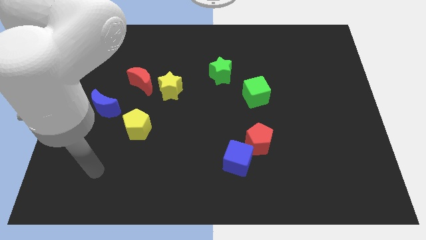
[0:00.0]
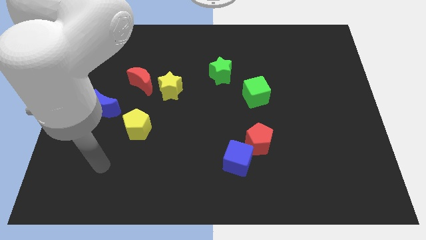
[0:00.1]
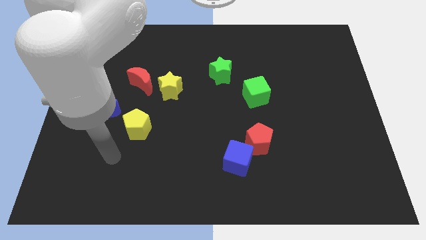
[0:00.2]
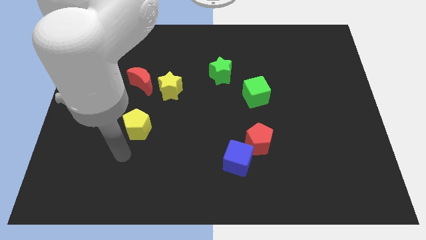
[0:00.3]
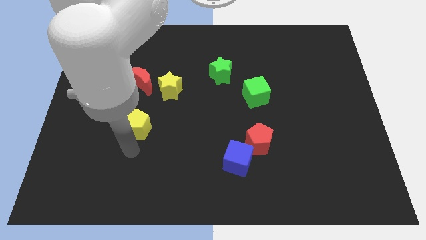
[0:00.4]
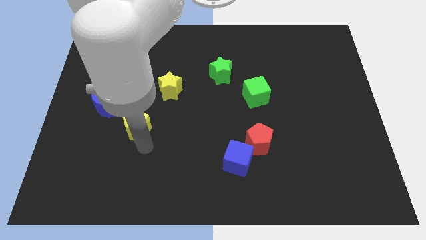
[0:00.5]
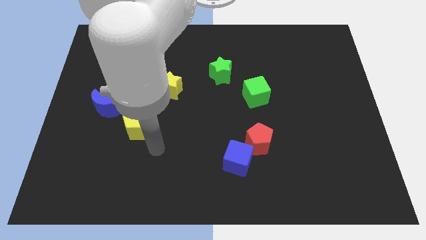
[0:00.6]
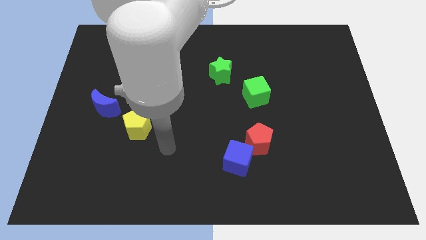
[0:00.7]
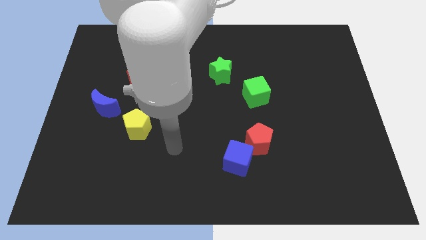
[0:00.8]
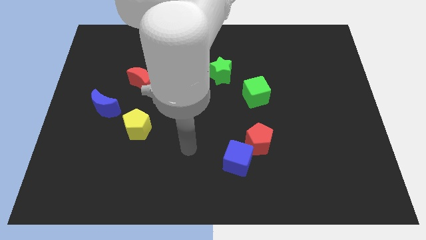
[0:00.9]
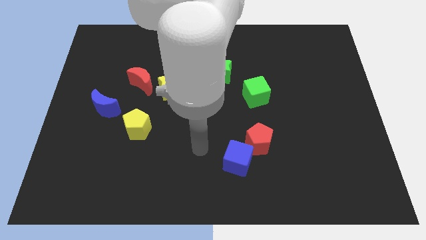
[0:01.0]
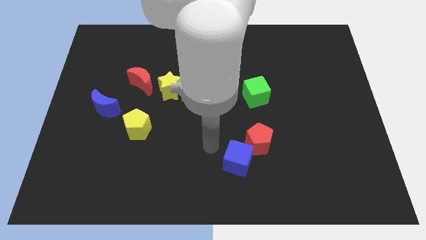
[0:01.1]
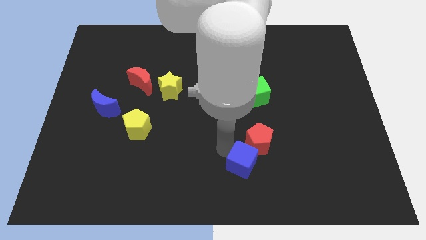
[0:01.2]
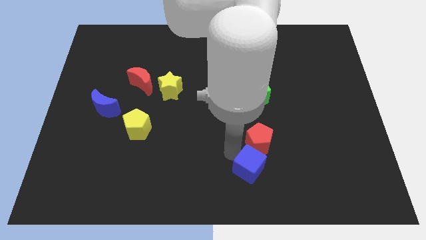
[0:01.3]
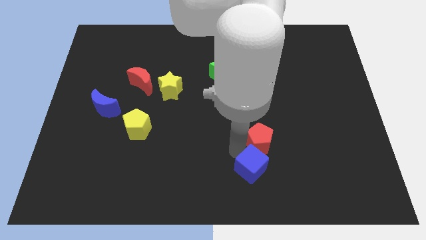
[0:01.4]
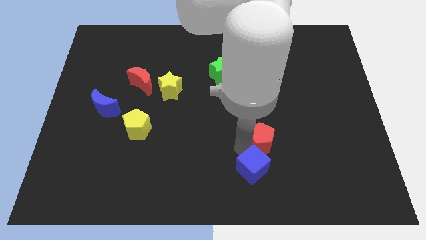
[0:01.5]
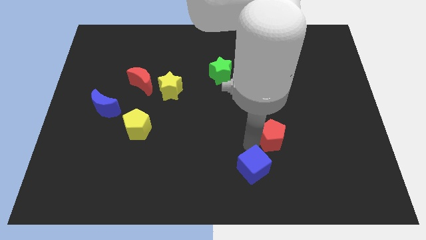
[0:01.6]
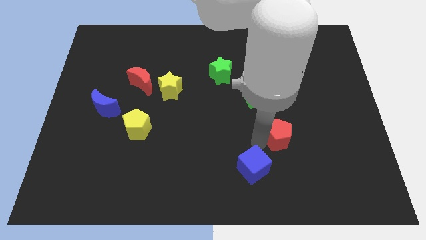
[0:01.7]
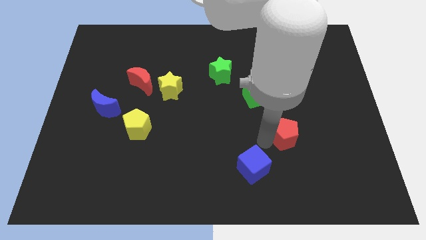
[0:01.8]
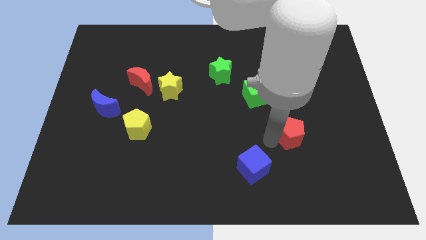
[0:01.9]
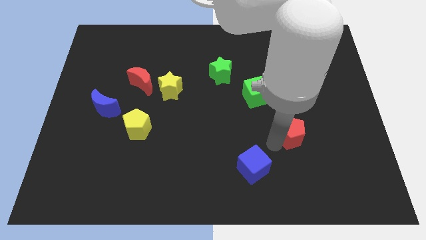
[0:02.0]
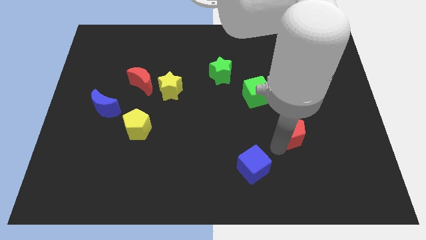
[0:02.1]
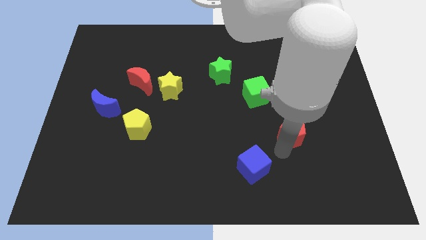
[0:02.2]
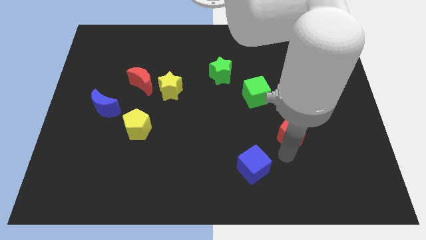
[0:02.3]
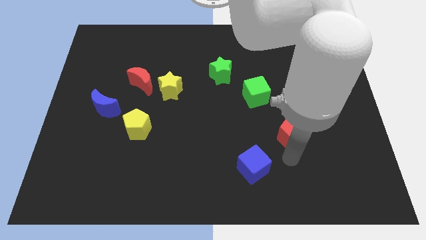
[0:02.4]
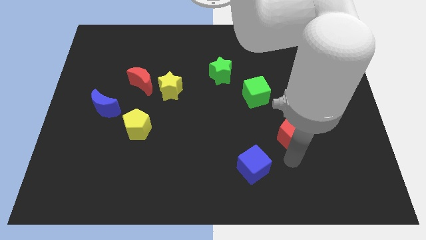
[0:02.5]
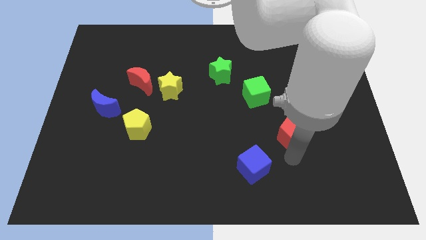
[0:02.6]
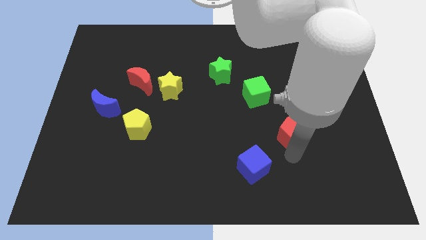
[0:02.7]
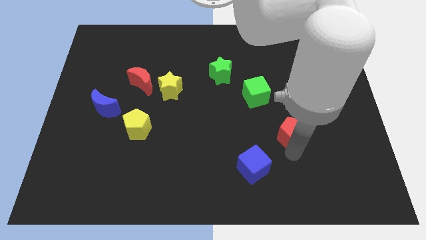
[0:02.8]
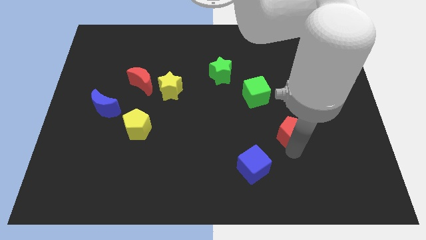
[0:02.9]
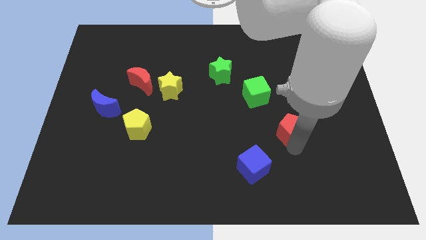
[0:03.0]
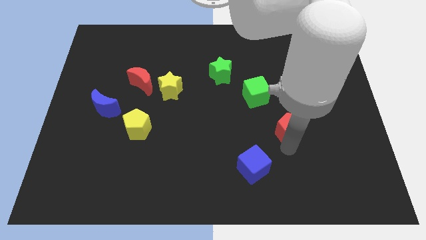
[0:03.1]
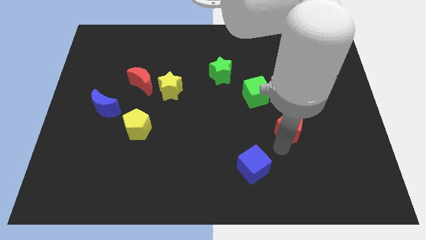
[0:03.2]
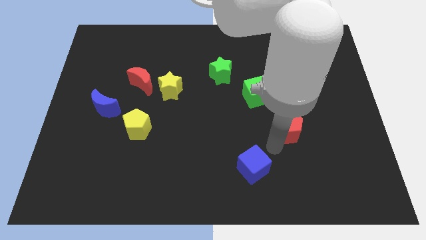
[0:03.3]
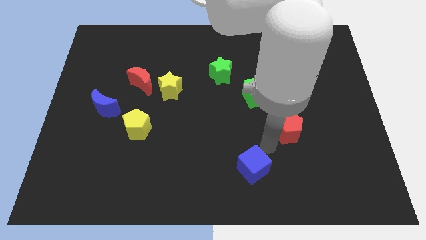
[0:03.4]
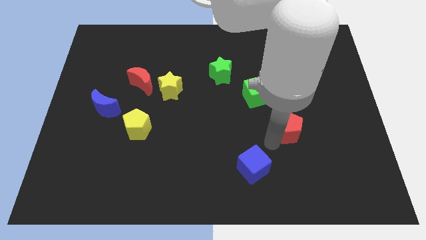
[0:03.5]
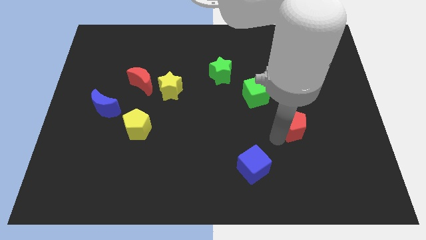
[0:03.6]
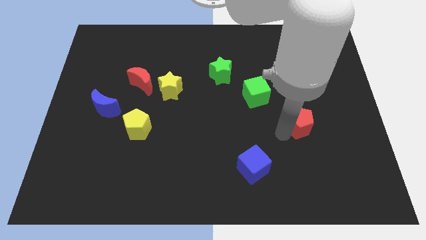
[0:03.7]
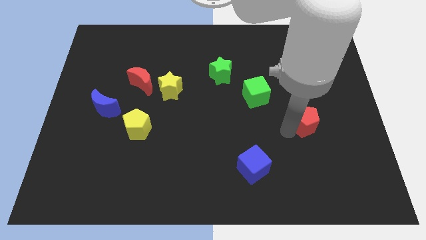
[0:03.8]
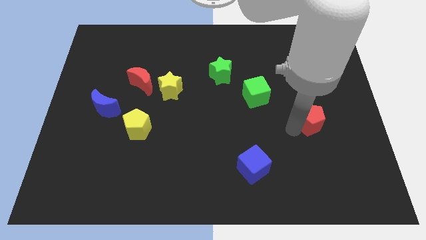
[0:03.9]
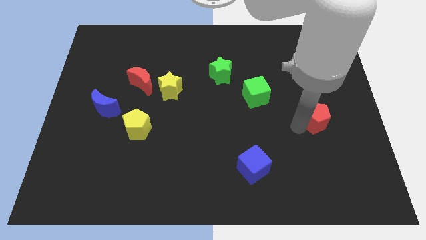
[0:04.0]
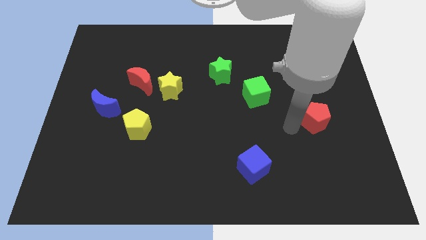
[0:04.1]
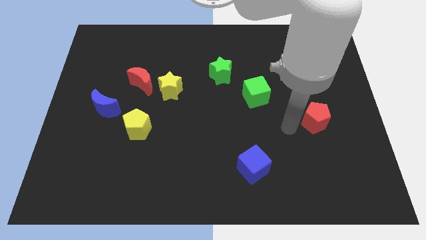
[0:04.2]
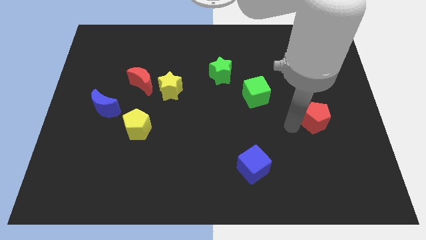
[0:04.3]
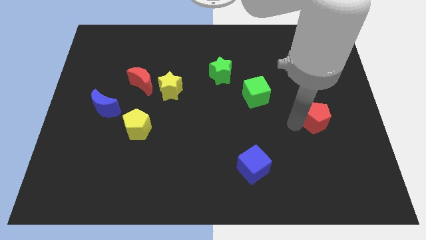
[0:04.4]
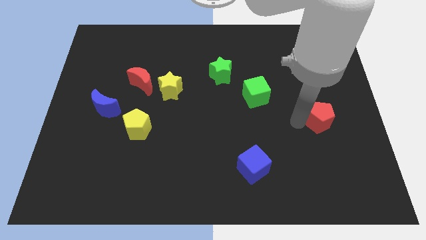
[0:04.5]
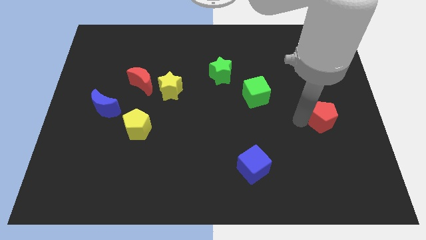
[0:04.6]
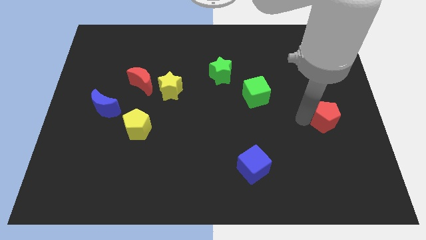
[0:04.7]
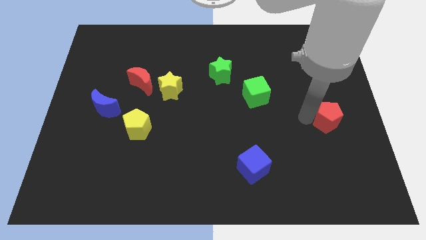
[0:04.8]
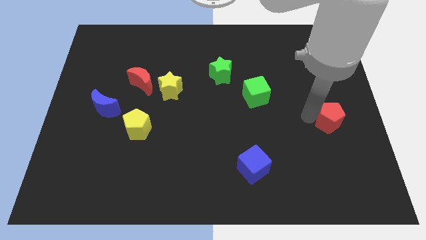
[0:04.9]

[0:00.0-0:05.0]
push the red pentagon to the right side of the board

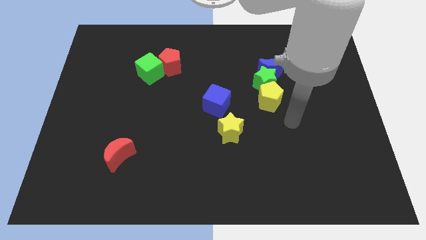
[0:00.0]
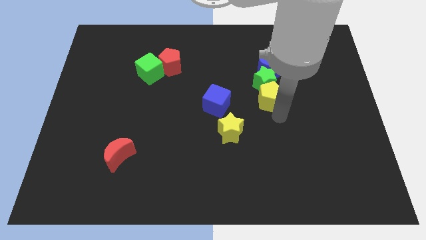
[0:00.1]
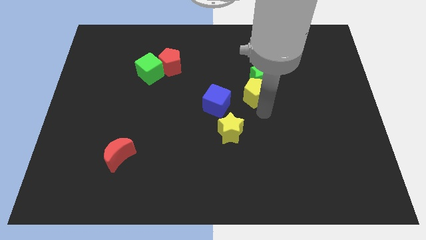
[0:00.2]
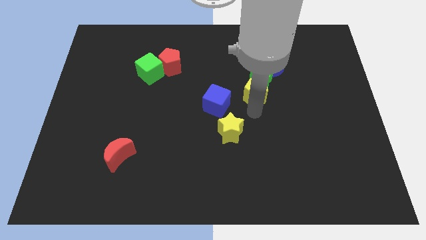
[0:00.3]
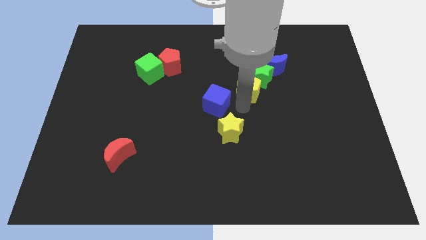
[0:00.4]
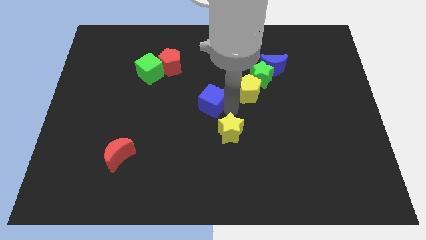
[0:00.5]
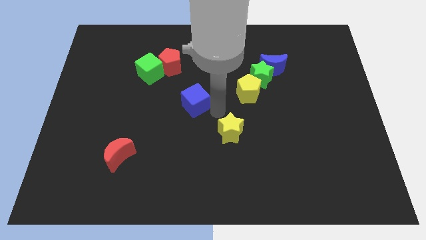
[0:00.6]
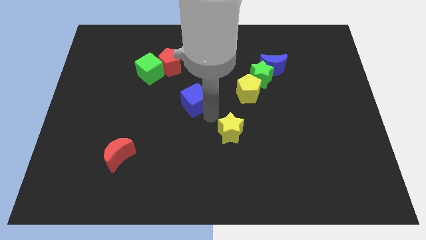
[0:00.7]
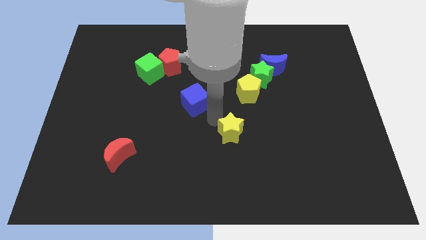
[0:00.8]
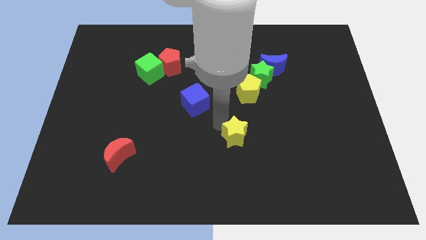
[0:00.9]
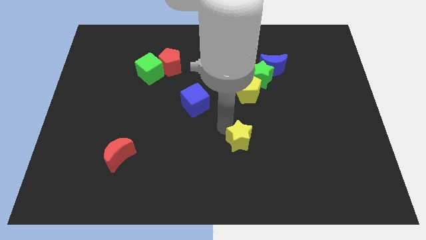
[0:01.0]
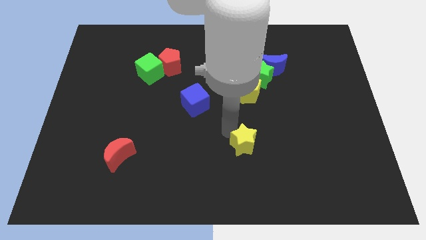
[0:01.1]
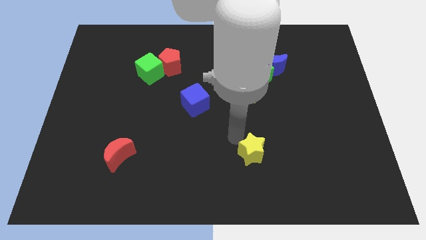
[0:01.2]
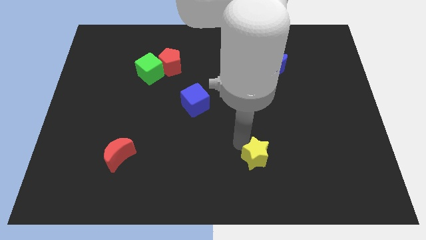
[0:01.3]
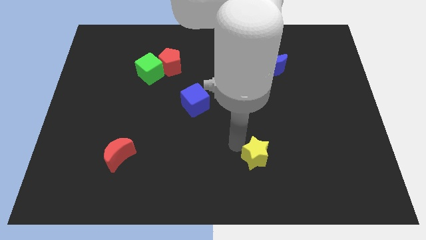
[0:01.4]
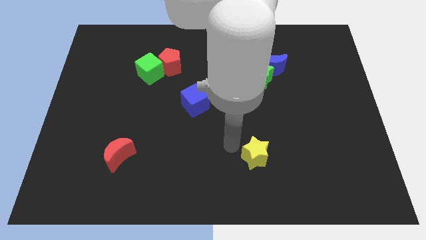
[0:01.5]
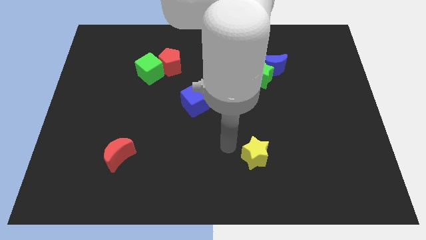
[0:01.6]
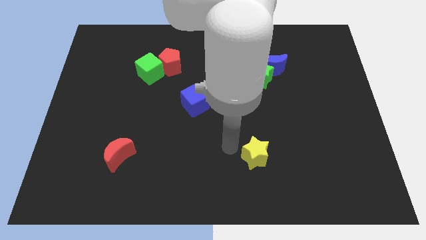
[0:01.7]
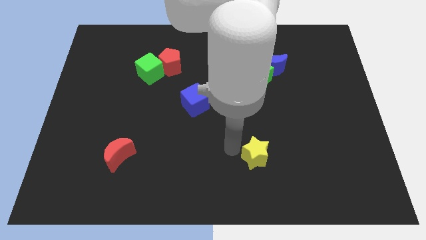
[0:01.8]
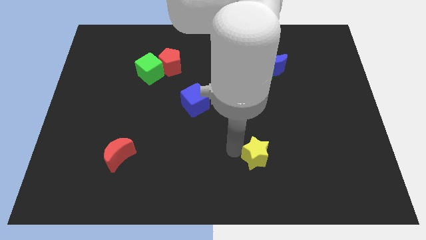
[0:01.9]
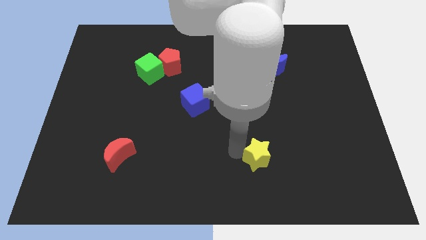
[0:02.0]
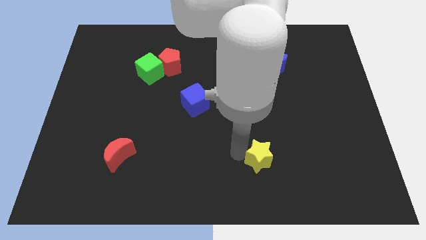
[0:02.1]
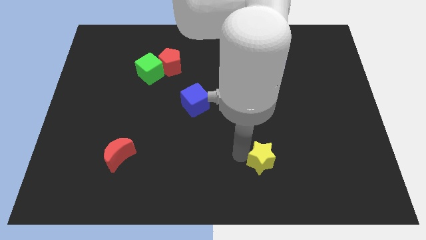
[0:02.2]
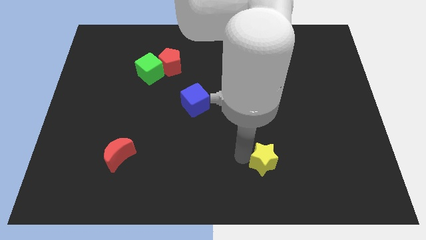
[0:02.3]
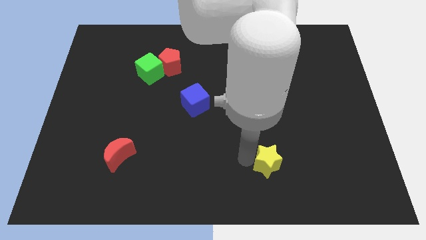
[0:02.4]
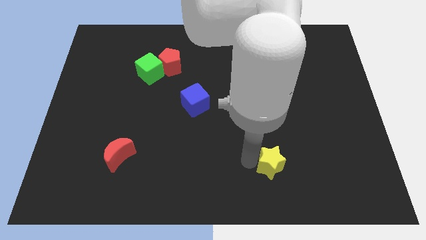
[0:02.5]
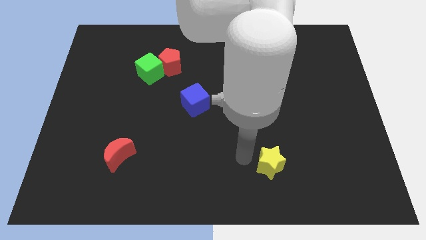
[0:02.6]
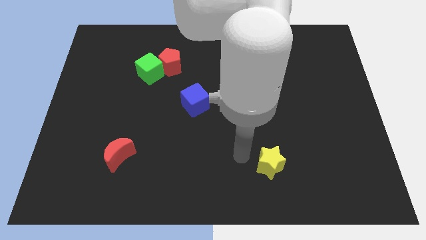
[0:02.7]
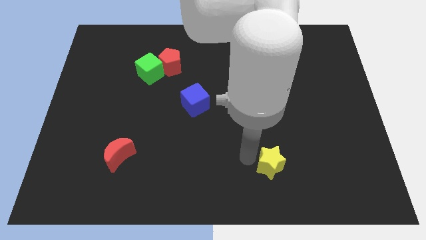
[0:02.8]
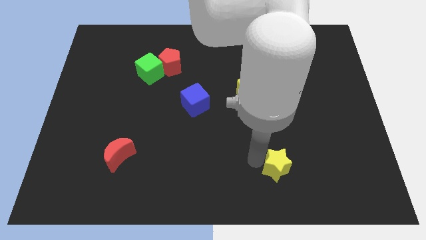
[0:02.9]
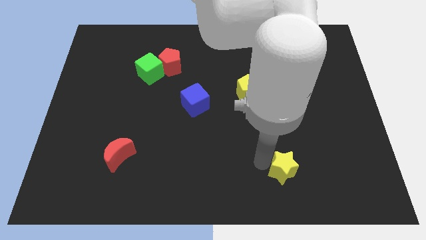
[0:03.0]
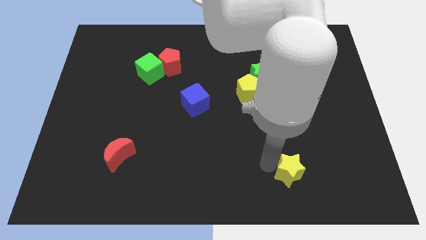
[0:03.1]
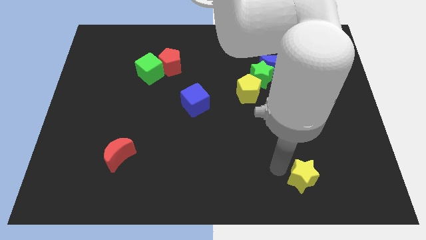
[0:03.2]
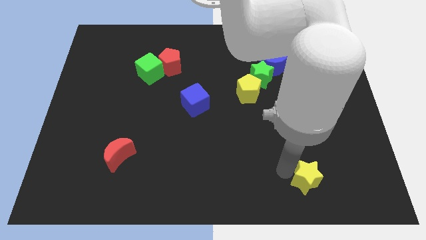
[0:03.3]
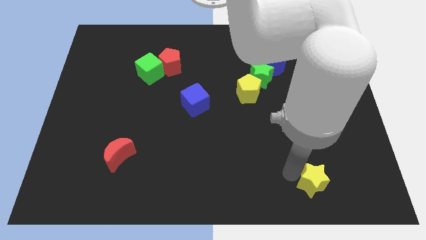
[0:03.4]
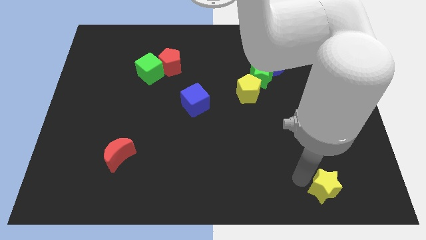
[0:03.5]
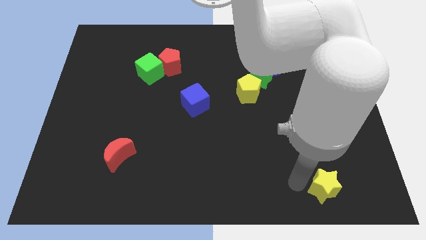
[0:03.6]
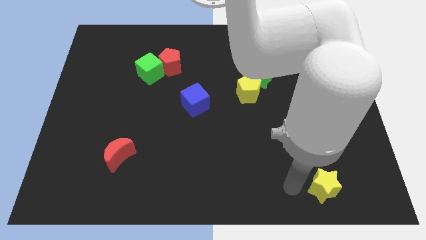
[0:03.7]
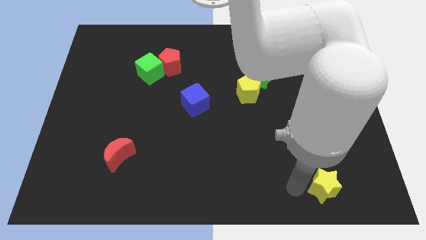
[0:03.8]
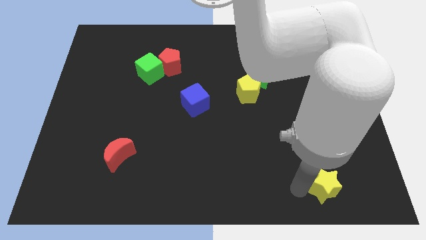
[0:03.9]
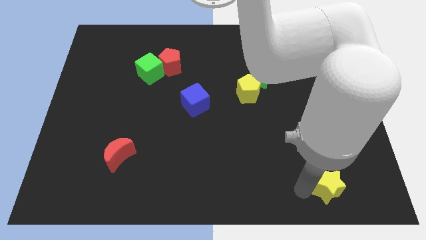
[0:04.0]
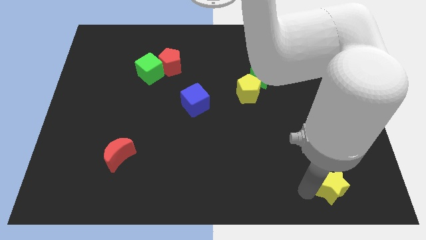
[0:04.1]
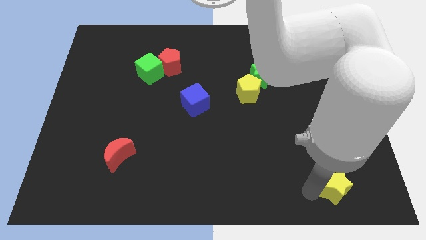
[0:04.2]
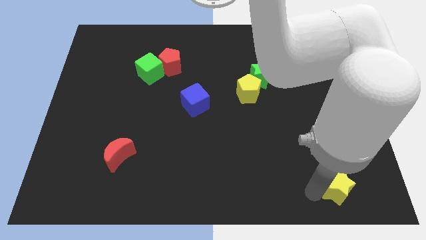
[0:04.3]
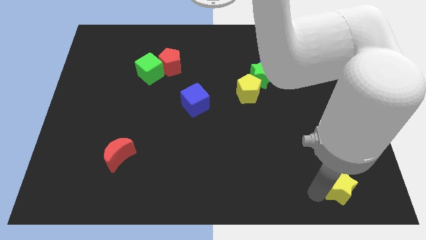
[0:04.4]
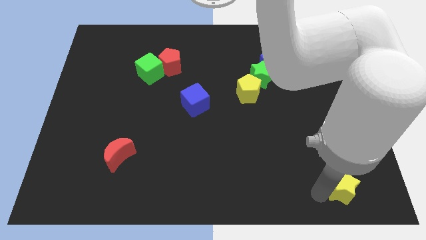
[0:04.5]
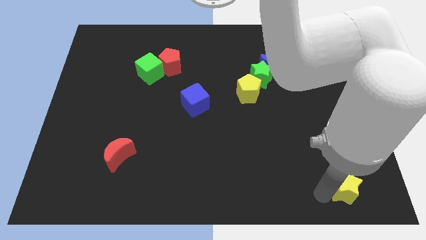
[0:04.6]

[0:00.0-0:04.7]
slide the yellow star to the bottom right
